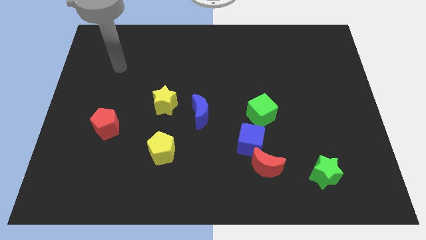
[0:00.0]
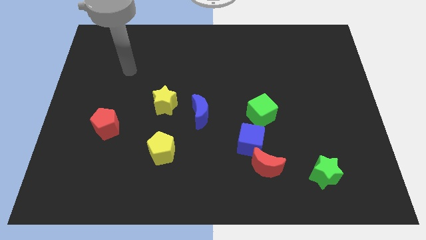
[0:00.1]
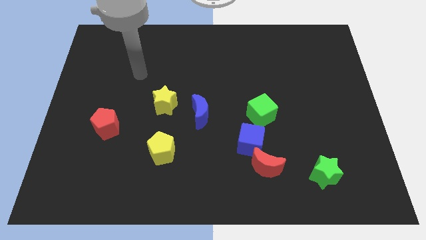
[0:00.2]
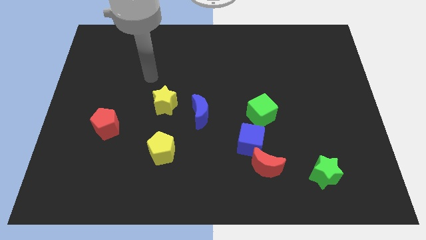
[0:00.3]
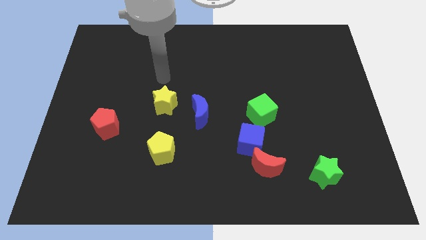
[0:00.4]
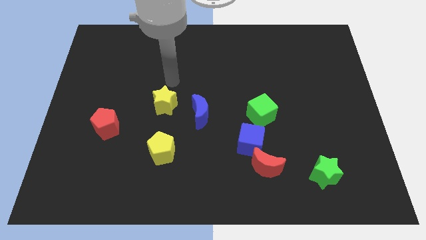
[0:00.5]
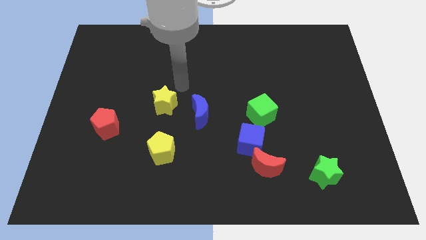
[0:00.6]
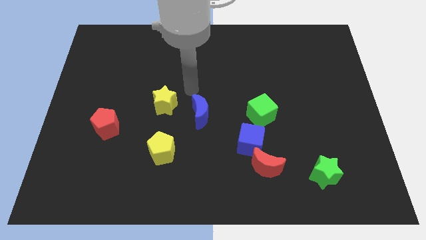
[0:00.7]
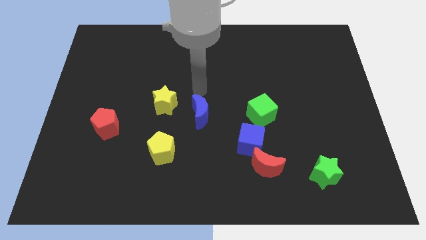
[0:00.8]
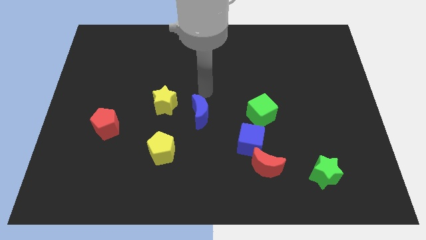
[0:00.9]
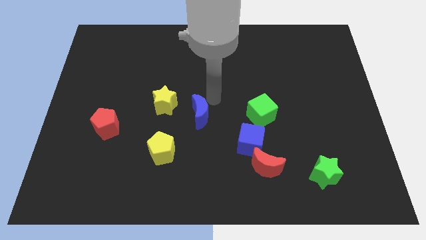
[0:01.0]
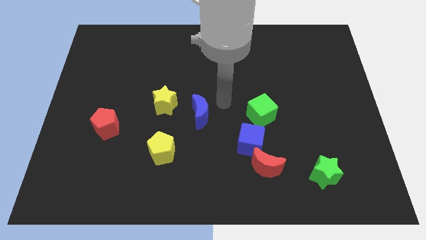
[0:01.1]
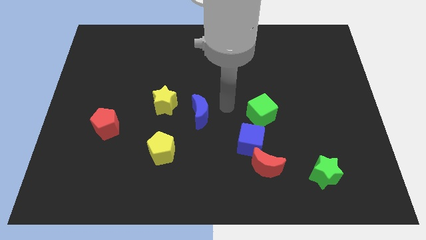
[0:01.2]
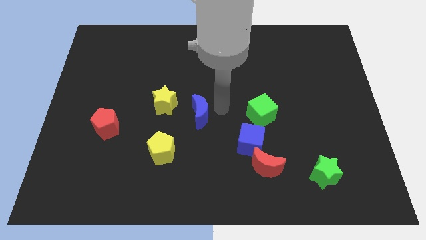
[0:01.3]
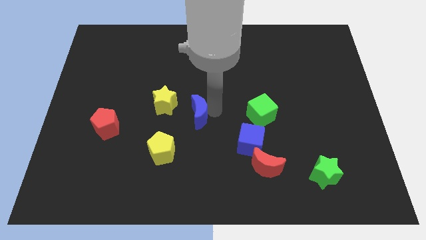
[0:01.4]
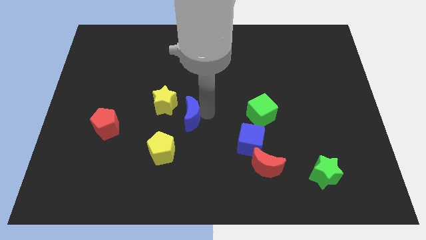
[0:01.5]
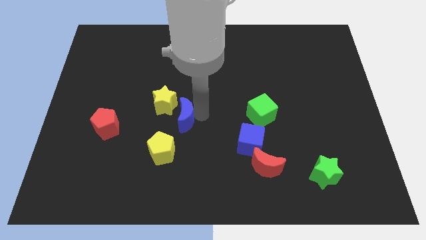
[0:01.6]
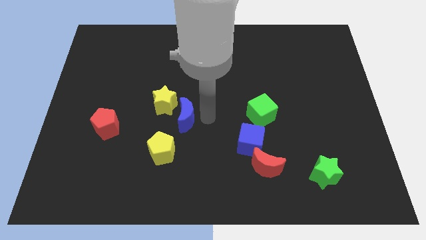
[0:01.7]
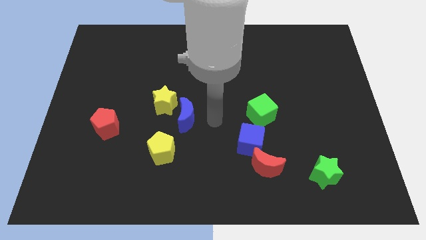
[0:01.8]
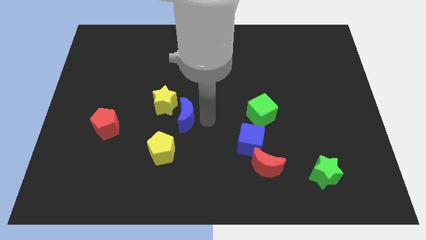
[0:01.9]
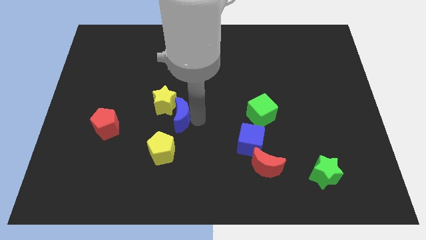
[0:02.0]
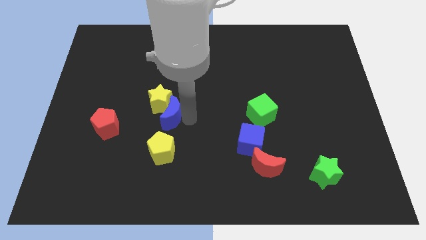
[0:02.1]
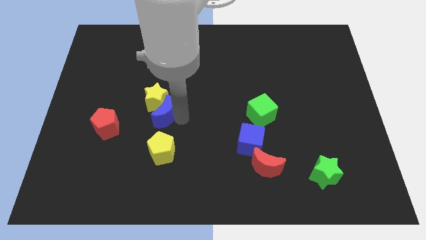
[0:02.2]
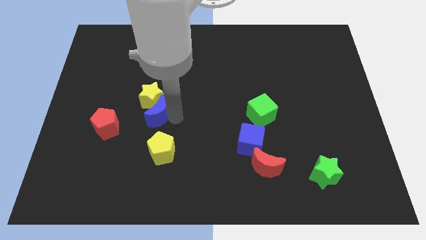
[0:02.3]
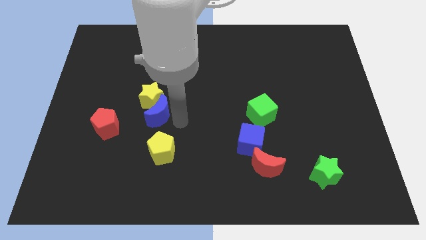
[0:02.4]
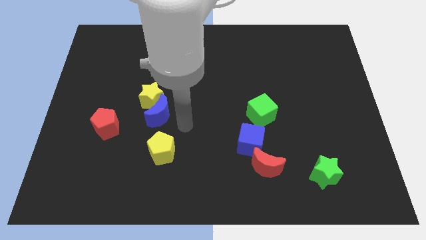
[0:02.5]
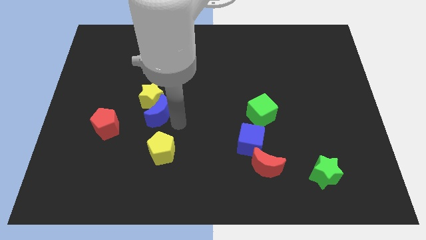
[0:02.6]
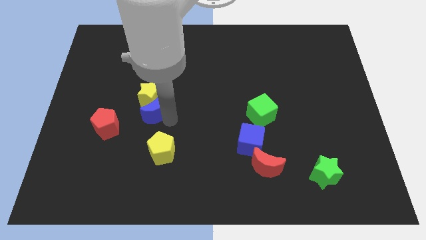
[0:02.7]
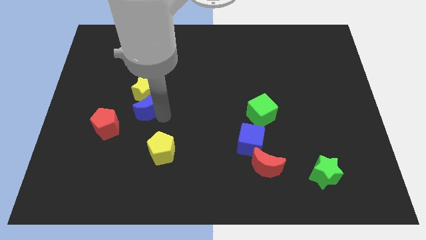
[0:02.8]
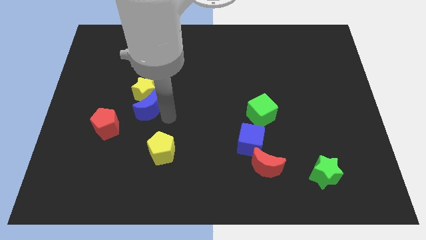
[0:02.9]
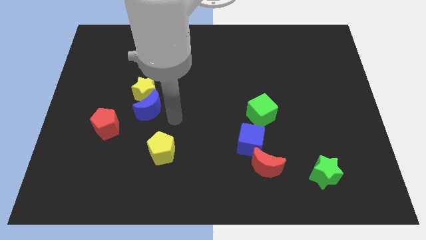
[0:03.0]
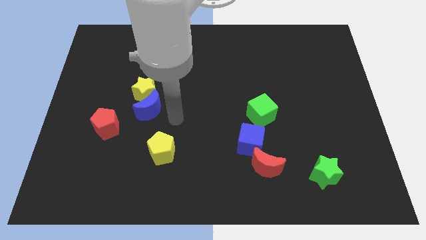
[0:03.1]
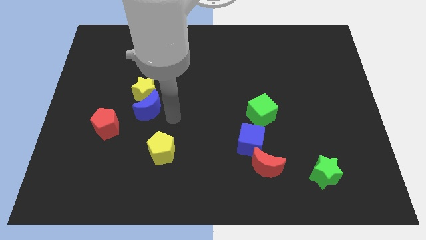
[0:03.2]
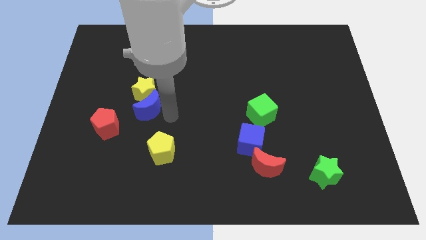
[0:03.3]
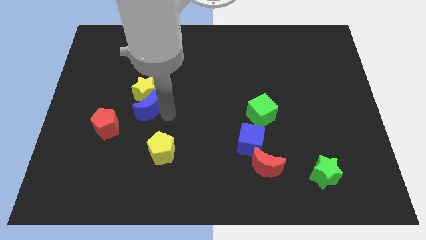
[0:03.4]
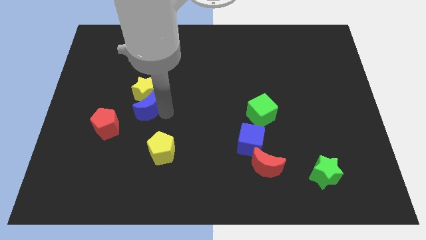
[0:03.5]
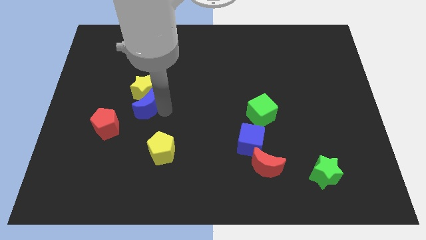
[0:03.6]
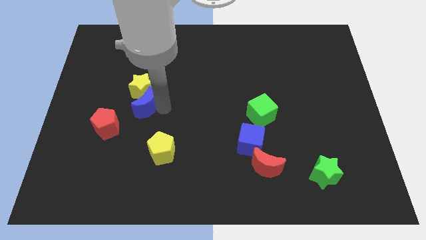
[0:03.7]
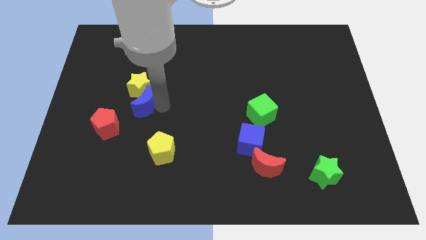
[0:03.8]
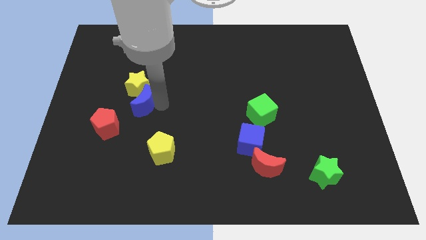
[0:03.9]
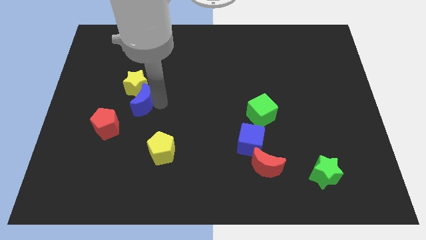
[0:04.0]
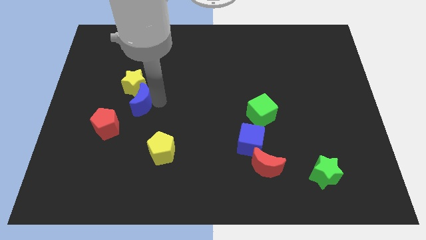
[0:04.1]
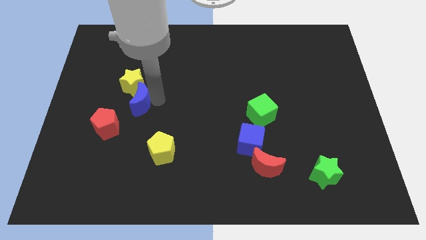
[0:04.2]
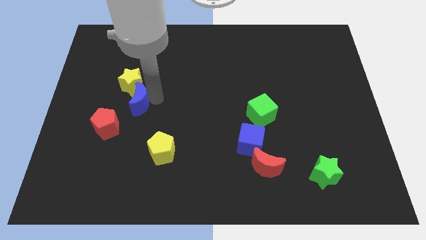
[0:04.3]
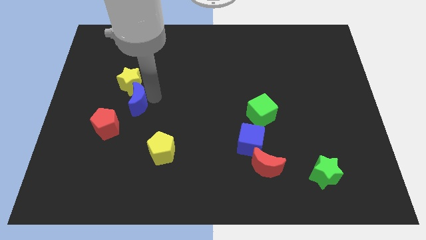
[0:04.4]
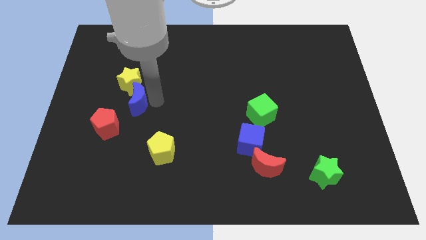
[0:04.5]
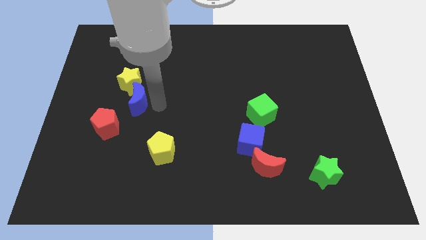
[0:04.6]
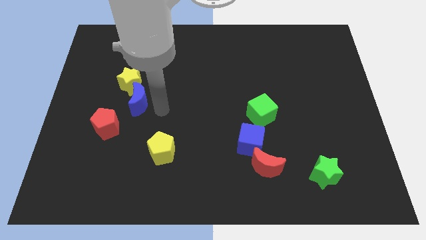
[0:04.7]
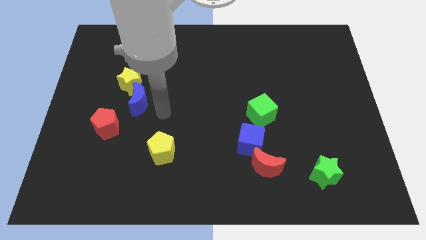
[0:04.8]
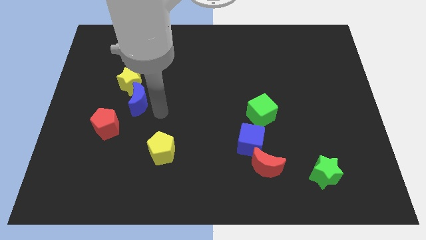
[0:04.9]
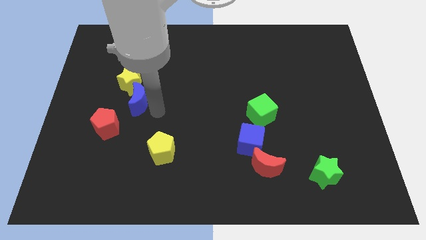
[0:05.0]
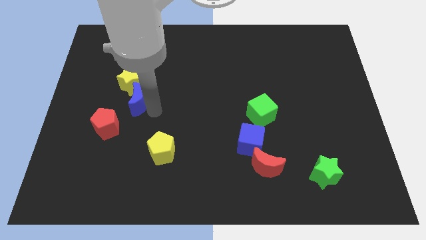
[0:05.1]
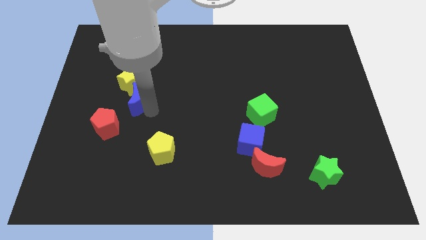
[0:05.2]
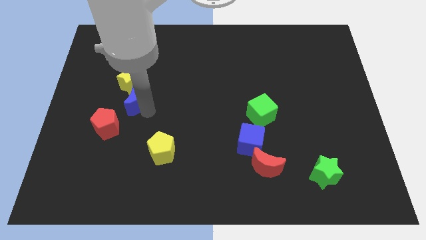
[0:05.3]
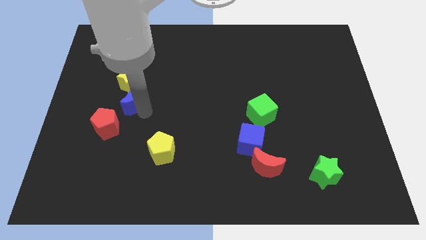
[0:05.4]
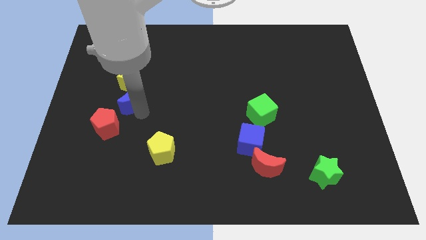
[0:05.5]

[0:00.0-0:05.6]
put the blue moon above the red pentagon

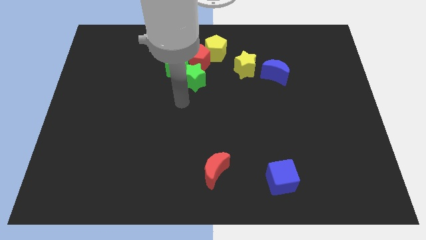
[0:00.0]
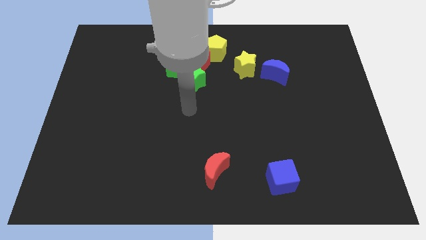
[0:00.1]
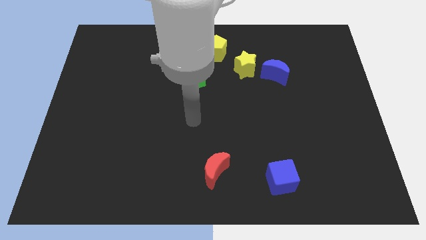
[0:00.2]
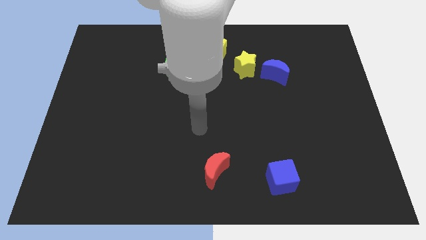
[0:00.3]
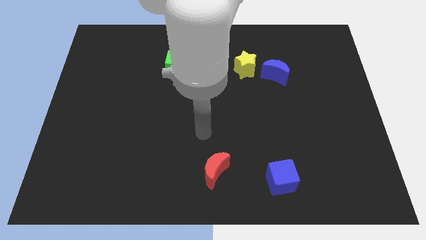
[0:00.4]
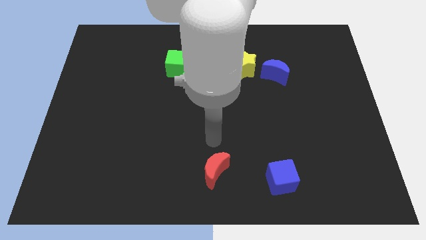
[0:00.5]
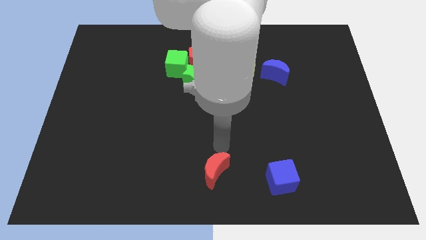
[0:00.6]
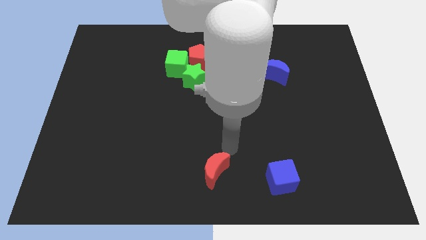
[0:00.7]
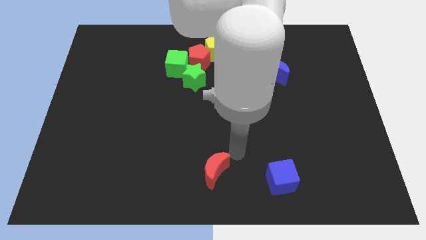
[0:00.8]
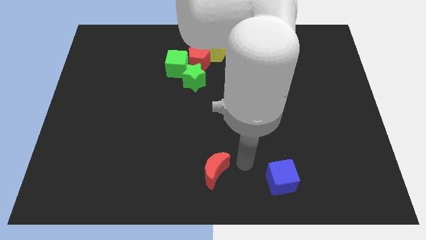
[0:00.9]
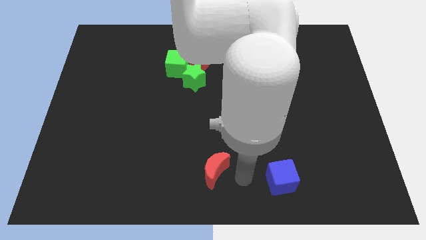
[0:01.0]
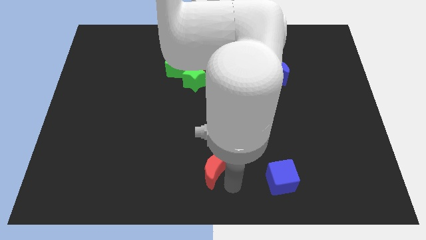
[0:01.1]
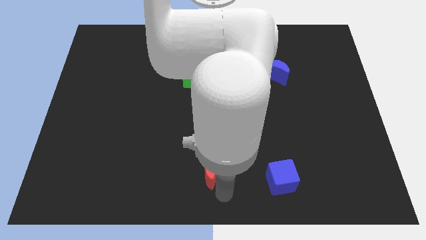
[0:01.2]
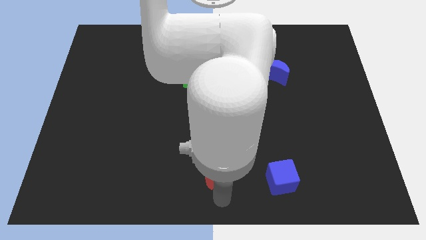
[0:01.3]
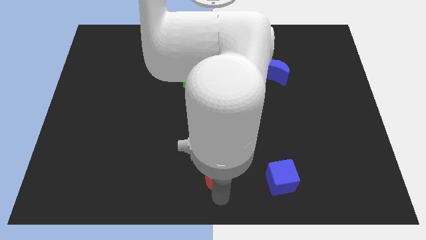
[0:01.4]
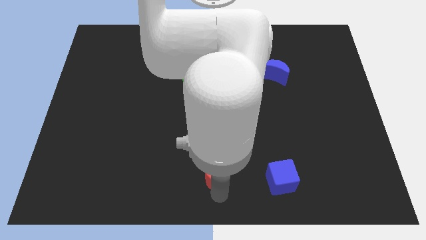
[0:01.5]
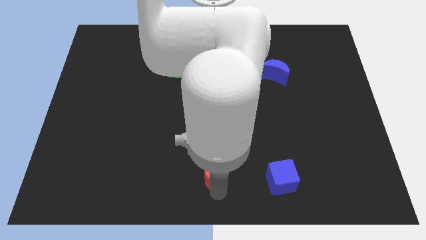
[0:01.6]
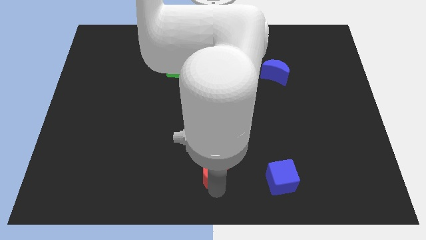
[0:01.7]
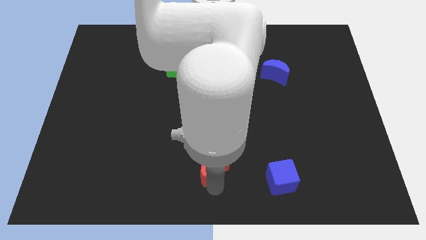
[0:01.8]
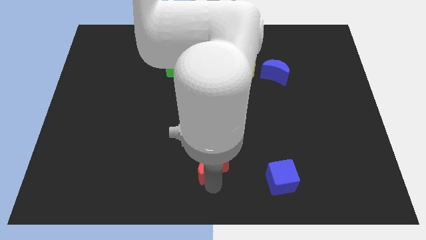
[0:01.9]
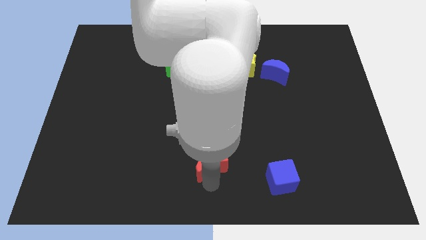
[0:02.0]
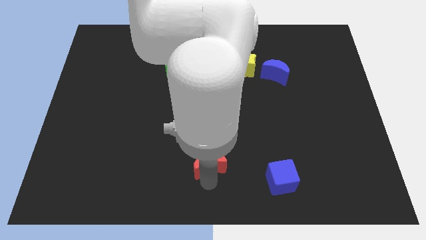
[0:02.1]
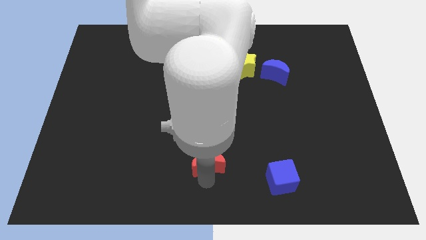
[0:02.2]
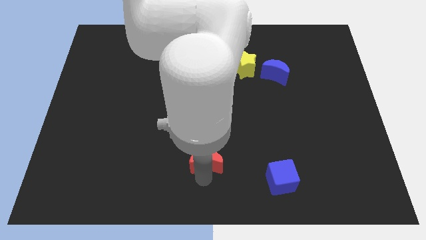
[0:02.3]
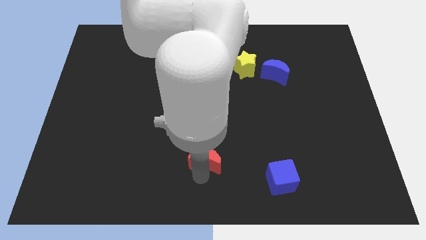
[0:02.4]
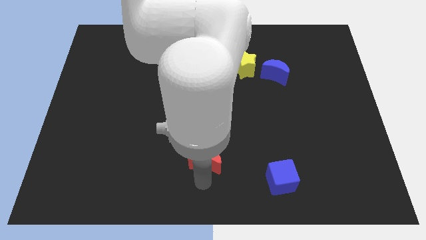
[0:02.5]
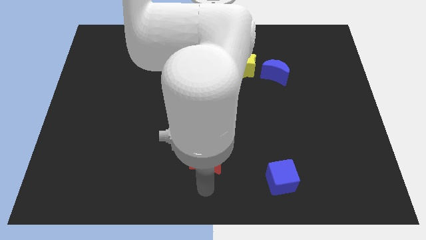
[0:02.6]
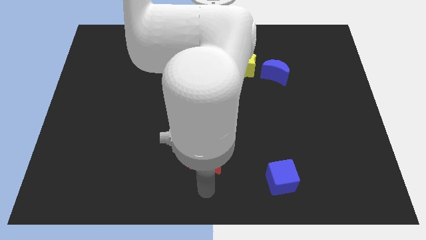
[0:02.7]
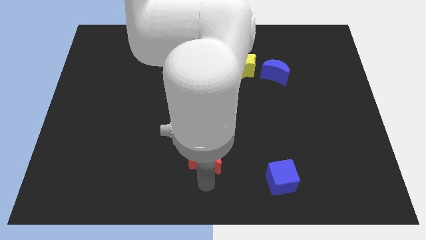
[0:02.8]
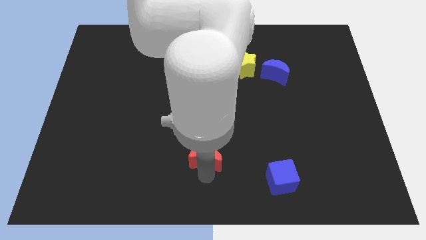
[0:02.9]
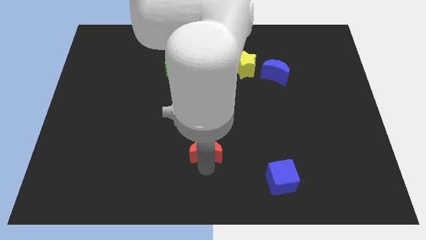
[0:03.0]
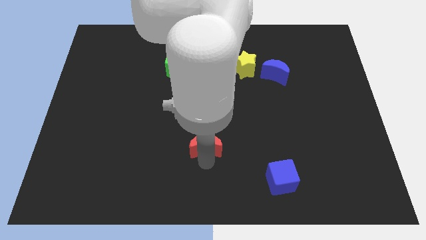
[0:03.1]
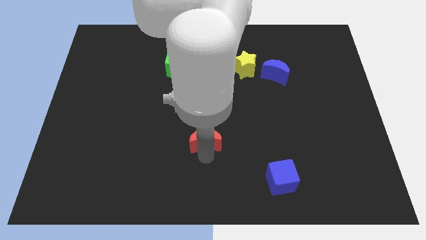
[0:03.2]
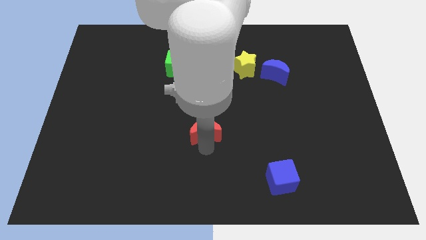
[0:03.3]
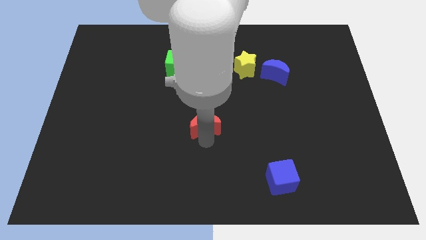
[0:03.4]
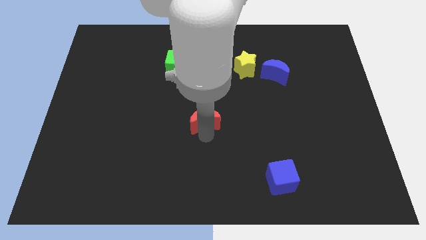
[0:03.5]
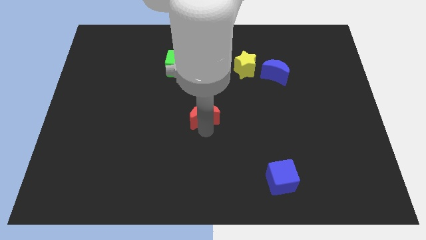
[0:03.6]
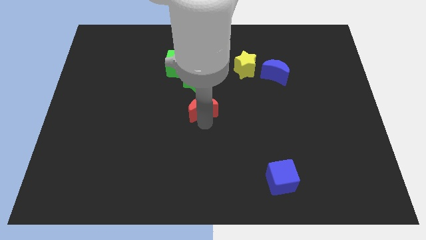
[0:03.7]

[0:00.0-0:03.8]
push the red moon to the bottom side of the red pentagon
